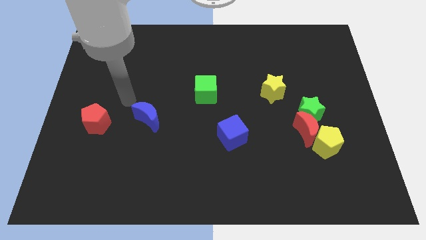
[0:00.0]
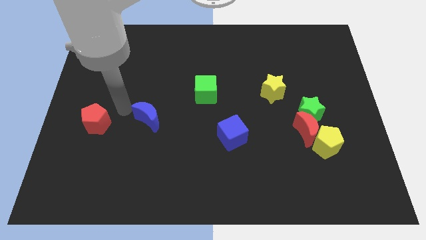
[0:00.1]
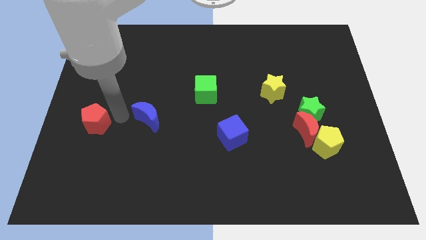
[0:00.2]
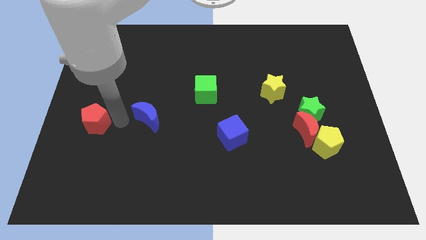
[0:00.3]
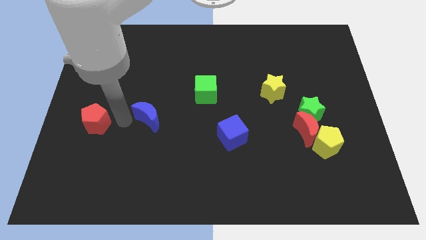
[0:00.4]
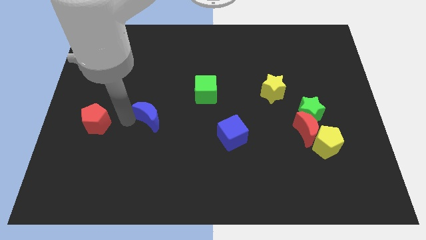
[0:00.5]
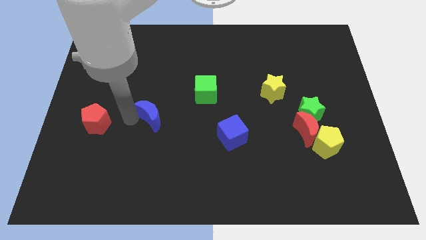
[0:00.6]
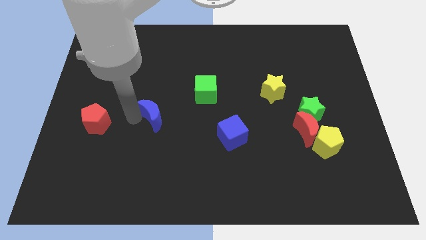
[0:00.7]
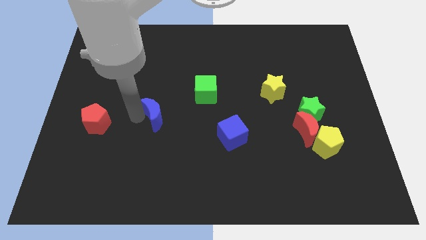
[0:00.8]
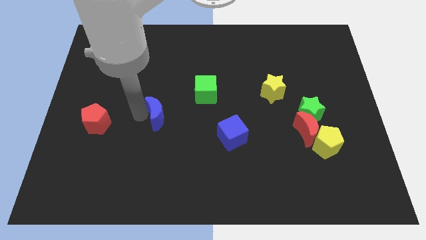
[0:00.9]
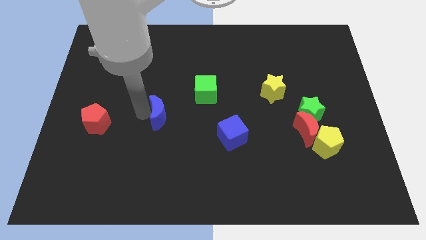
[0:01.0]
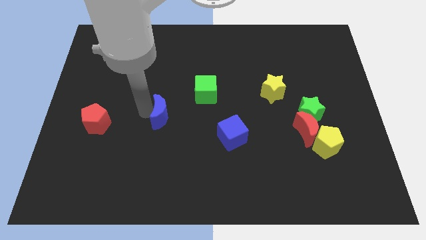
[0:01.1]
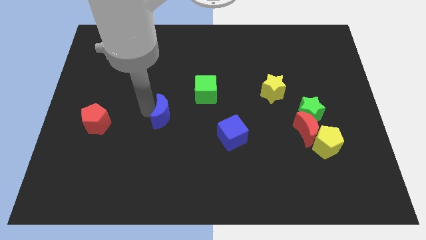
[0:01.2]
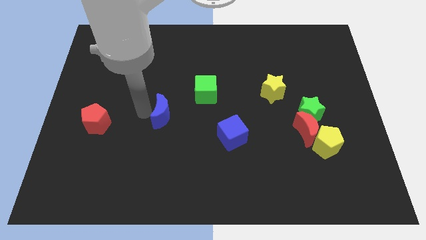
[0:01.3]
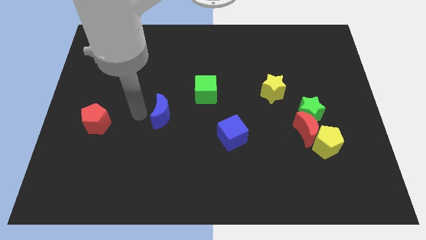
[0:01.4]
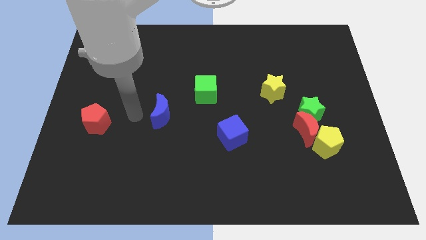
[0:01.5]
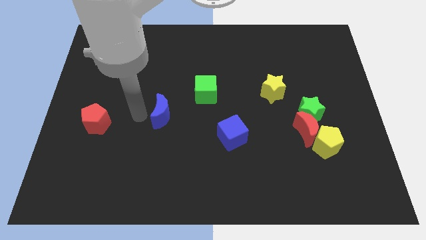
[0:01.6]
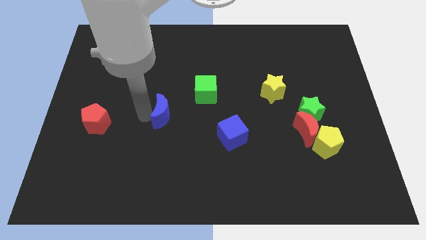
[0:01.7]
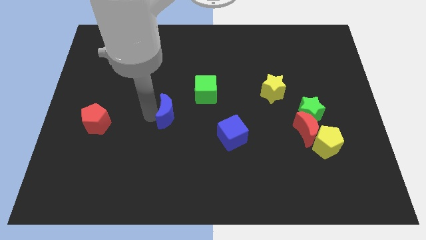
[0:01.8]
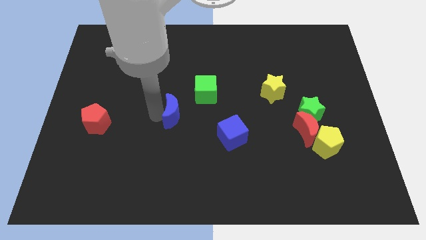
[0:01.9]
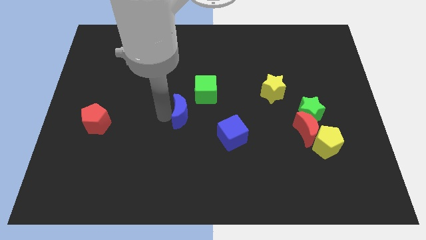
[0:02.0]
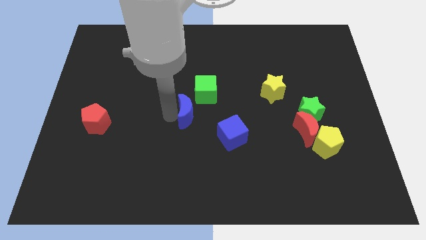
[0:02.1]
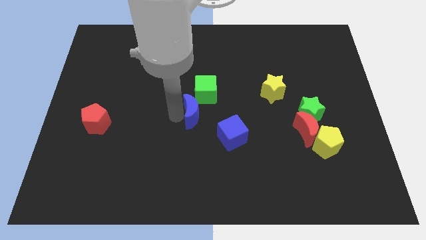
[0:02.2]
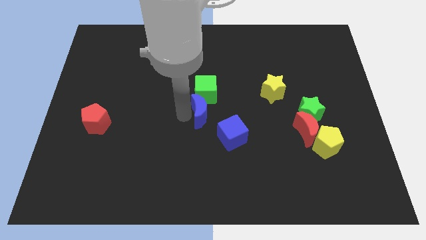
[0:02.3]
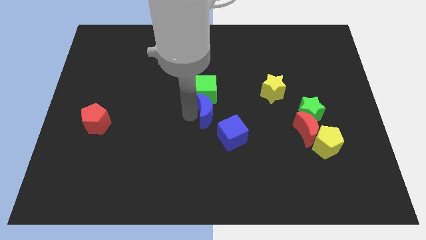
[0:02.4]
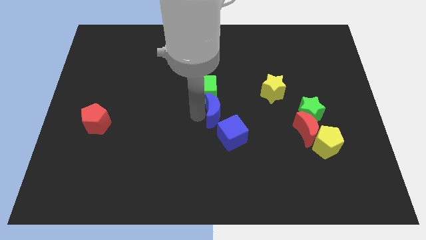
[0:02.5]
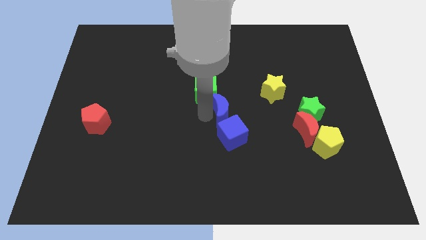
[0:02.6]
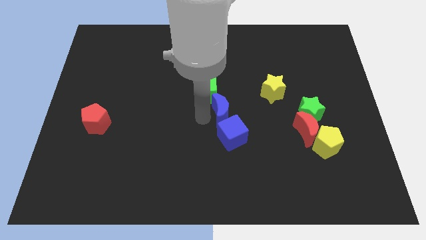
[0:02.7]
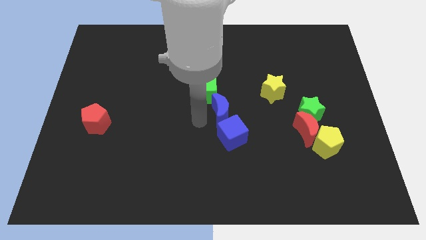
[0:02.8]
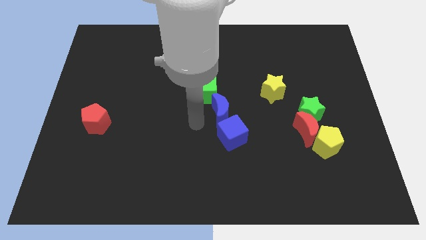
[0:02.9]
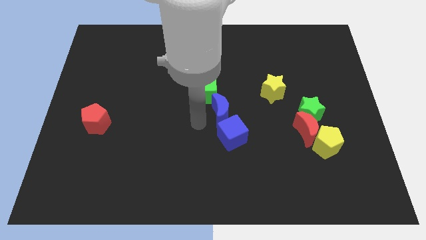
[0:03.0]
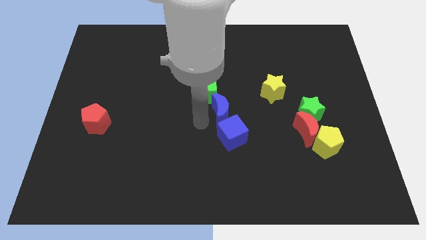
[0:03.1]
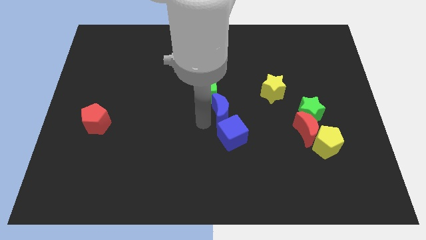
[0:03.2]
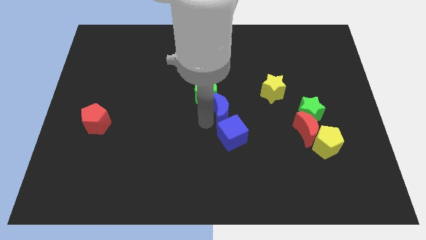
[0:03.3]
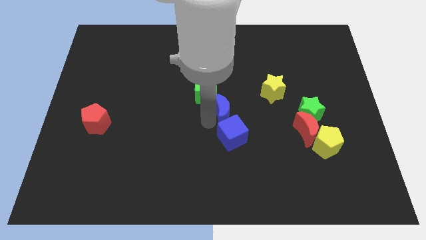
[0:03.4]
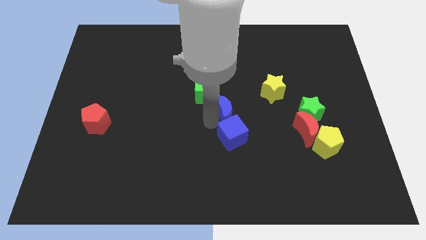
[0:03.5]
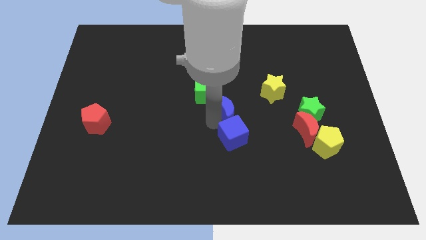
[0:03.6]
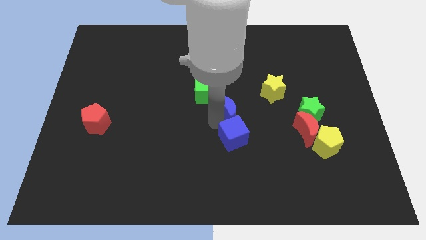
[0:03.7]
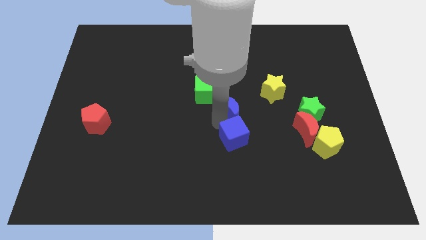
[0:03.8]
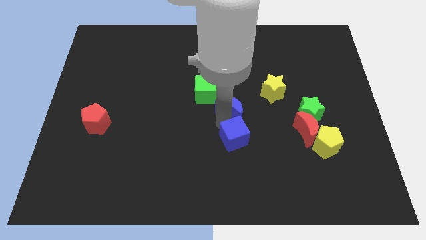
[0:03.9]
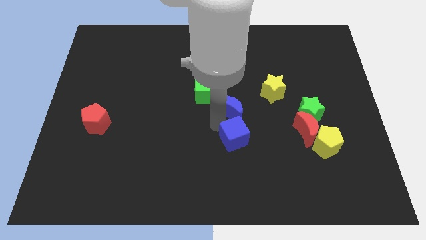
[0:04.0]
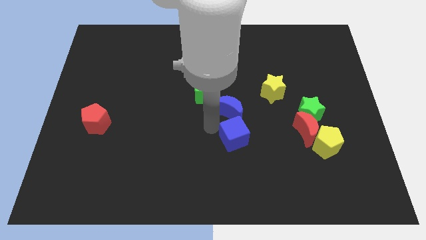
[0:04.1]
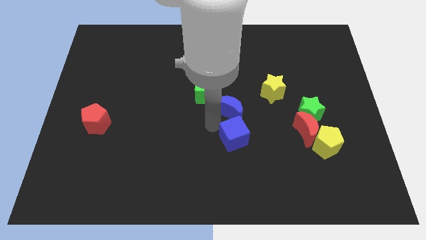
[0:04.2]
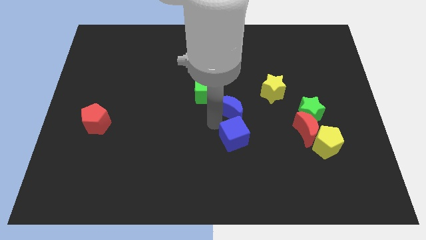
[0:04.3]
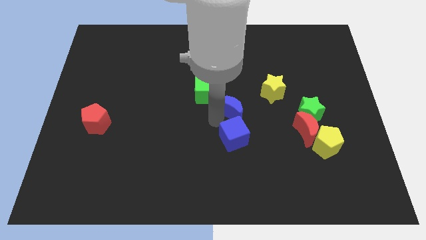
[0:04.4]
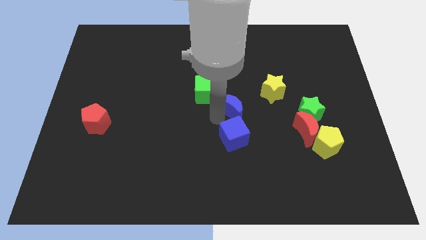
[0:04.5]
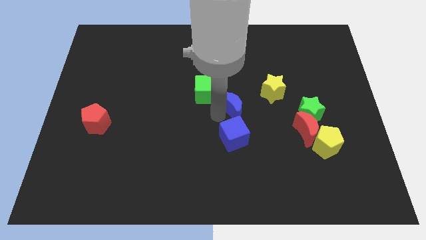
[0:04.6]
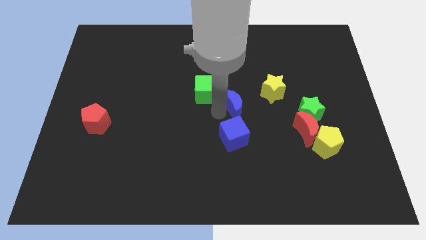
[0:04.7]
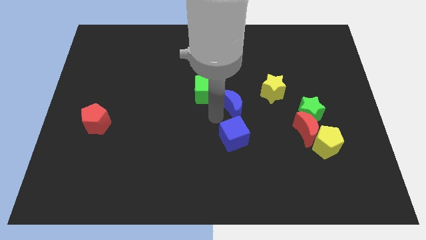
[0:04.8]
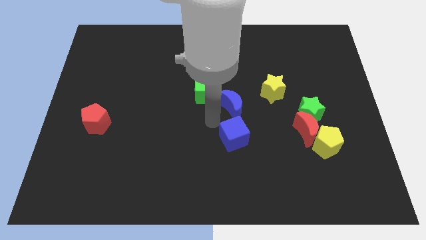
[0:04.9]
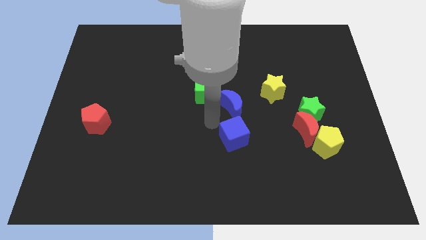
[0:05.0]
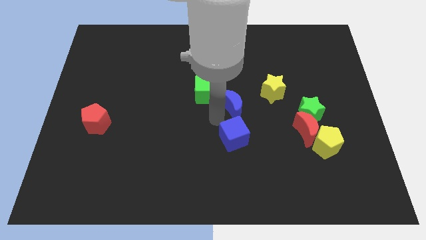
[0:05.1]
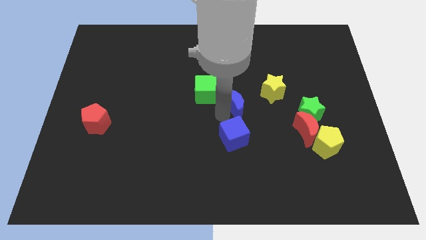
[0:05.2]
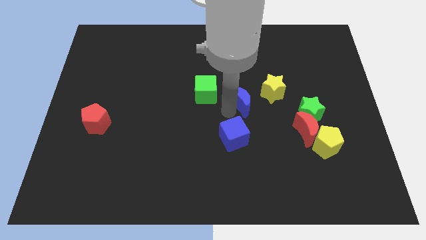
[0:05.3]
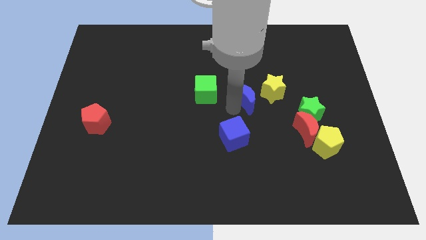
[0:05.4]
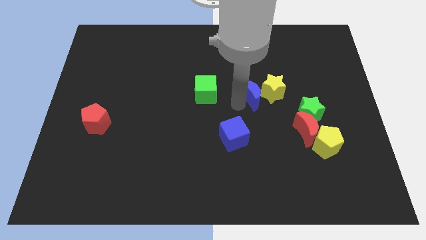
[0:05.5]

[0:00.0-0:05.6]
put the blue moon close to the yellow star

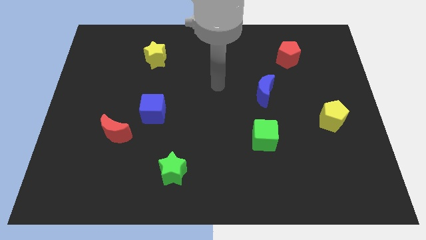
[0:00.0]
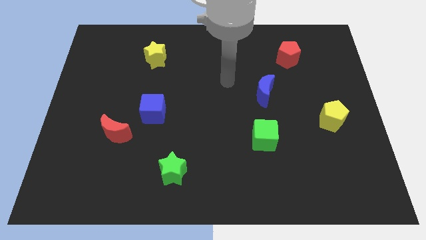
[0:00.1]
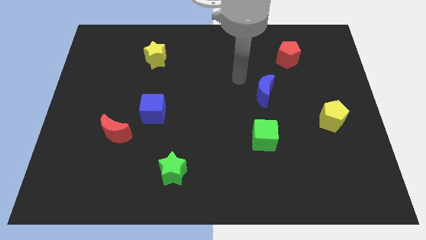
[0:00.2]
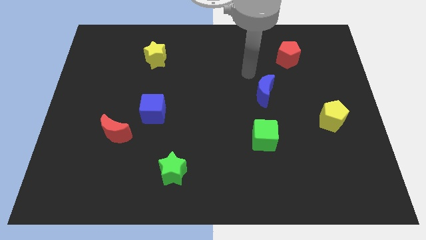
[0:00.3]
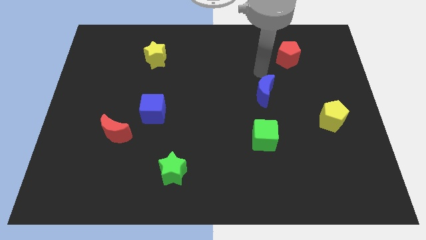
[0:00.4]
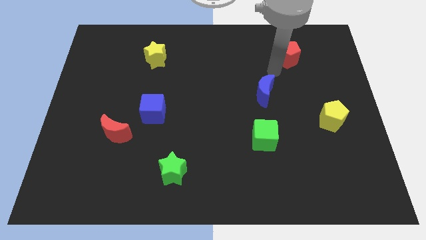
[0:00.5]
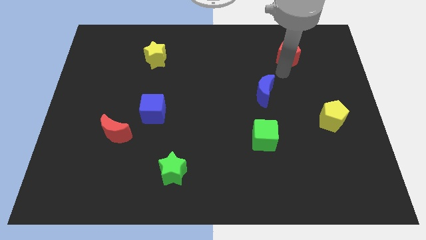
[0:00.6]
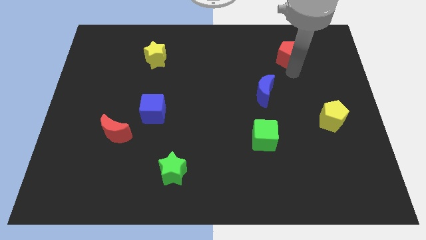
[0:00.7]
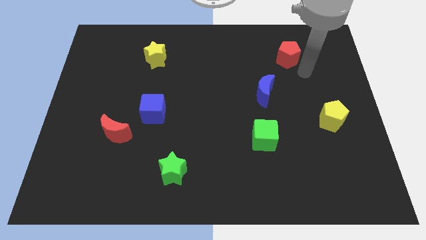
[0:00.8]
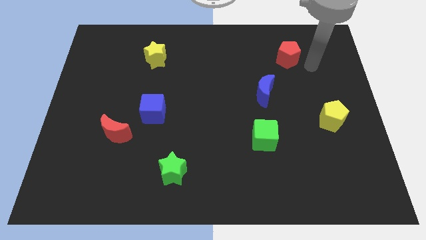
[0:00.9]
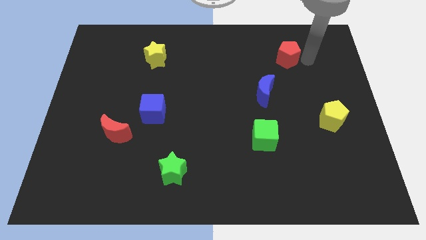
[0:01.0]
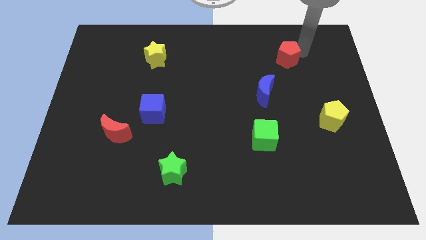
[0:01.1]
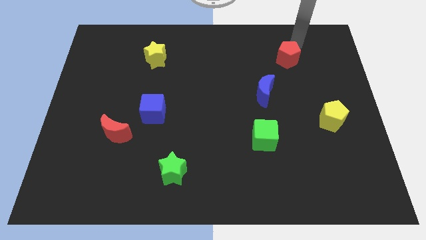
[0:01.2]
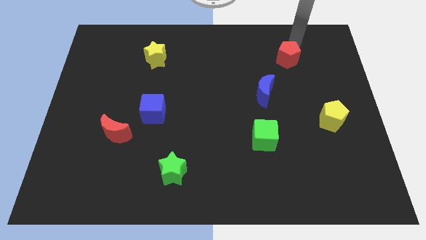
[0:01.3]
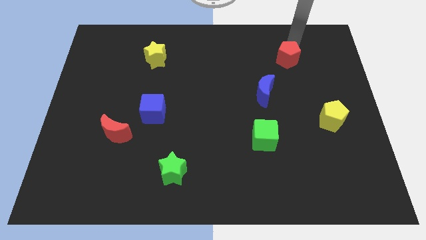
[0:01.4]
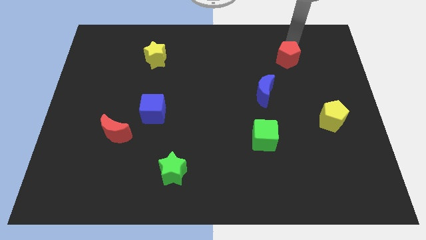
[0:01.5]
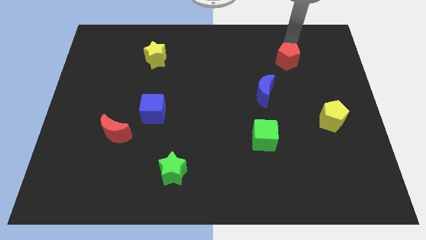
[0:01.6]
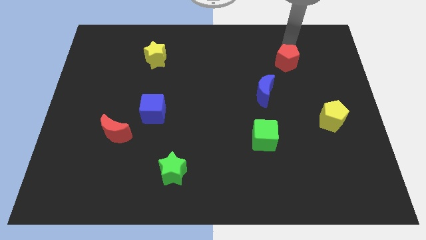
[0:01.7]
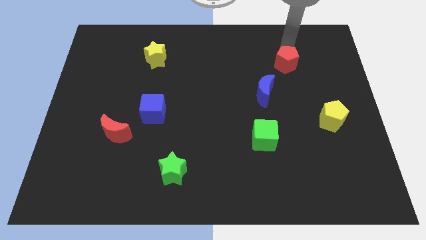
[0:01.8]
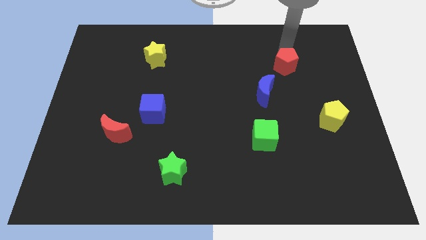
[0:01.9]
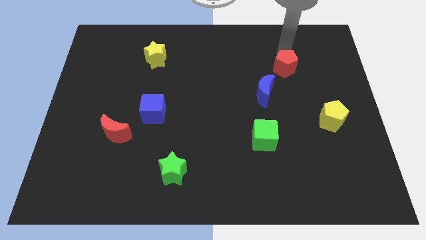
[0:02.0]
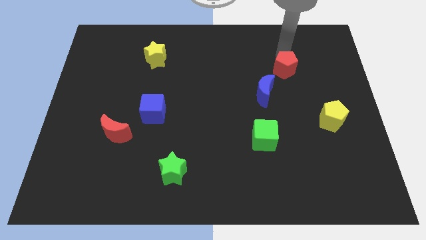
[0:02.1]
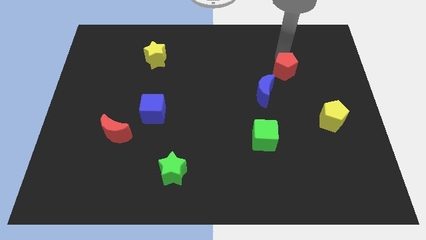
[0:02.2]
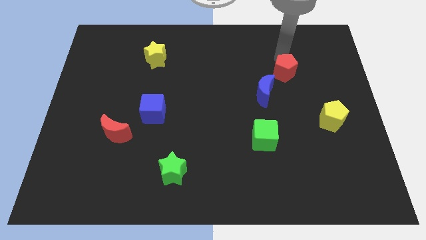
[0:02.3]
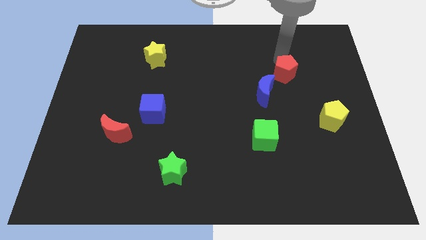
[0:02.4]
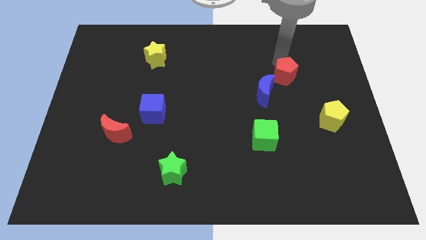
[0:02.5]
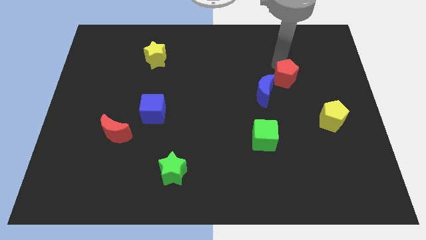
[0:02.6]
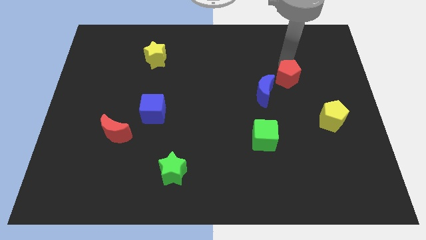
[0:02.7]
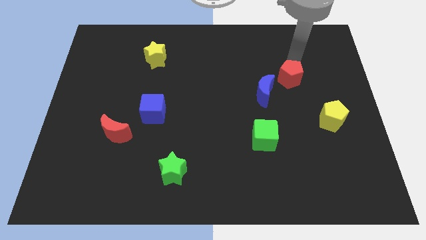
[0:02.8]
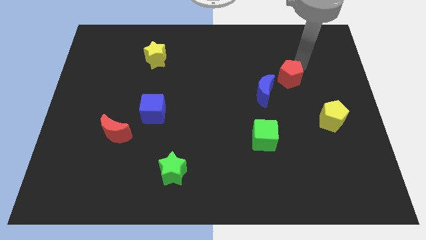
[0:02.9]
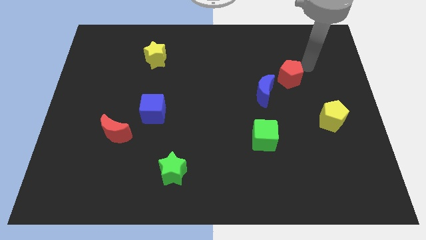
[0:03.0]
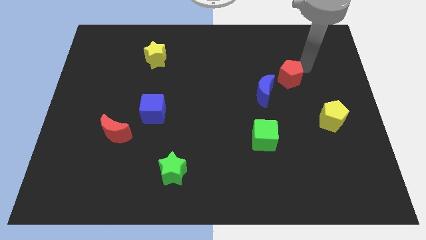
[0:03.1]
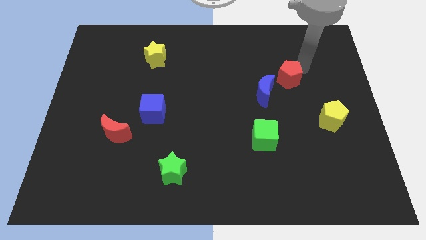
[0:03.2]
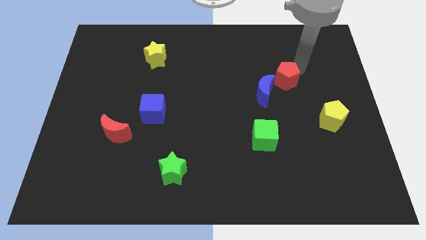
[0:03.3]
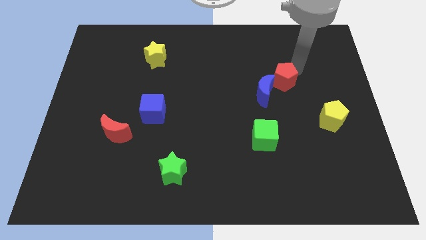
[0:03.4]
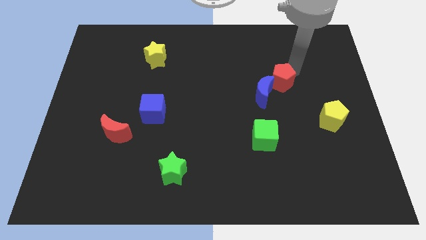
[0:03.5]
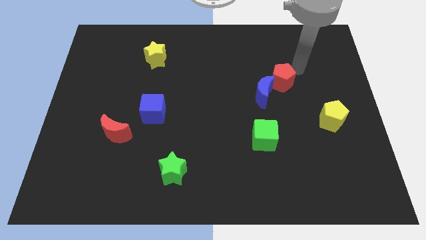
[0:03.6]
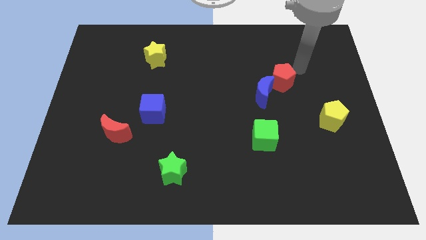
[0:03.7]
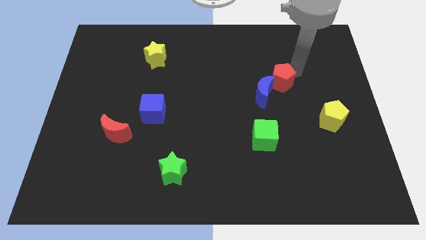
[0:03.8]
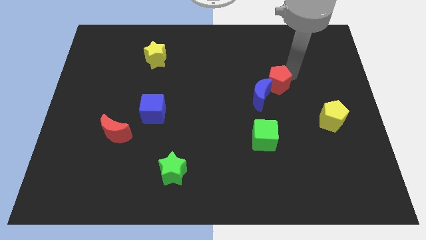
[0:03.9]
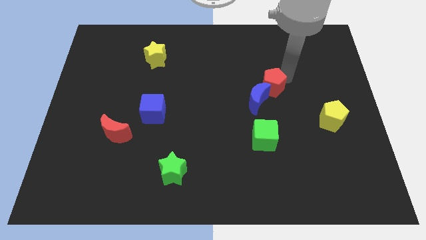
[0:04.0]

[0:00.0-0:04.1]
put the red pentagon to the blue moon
